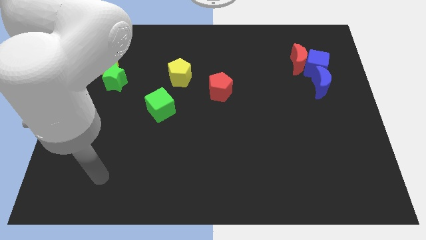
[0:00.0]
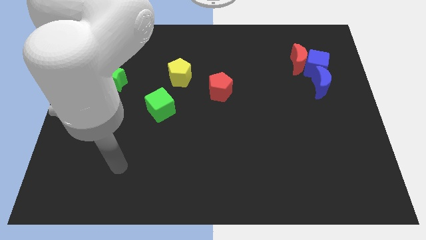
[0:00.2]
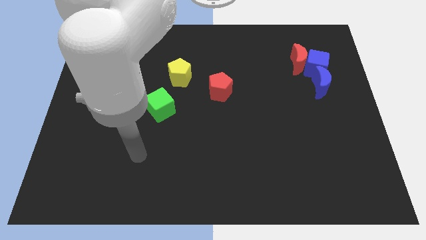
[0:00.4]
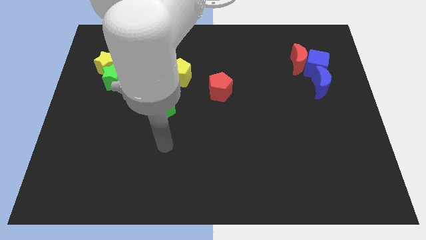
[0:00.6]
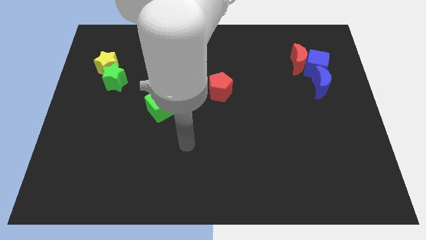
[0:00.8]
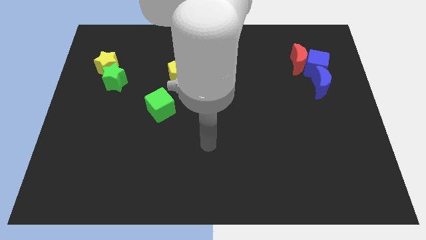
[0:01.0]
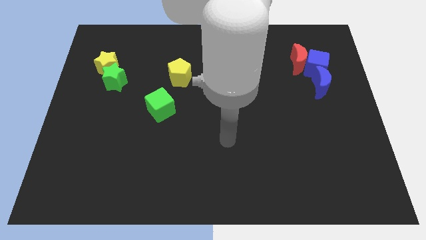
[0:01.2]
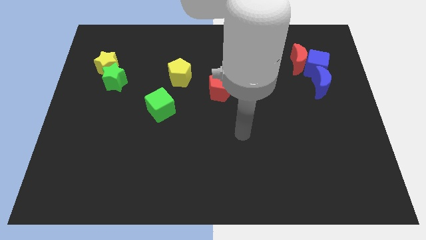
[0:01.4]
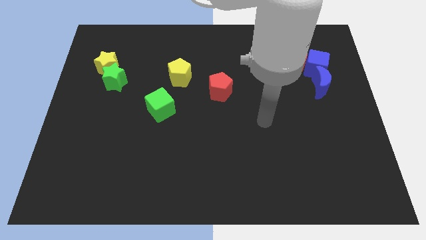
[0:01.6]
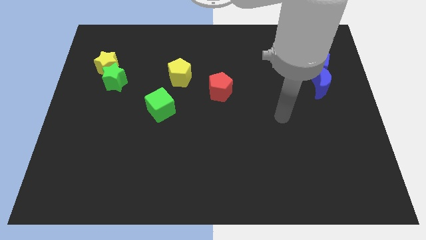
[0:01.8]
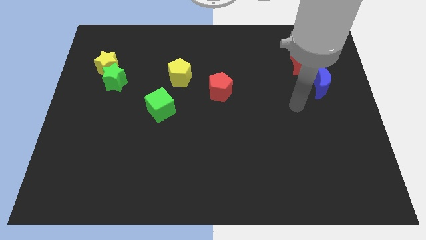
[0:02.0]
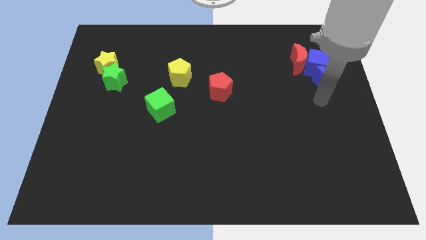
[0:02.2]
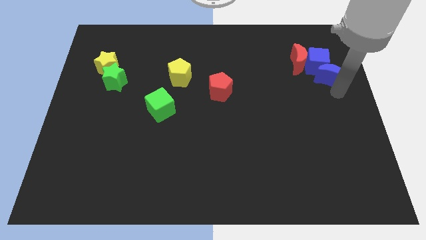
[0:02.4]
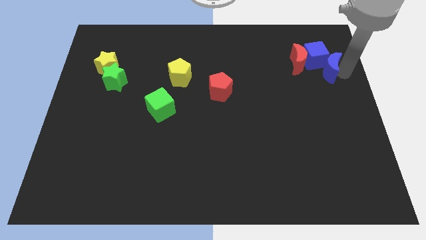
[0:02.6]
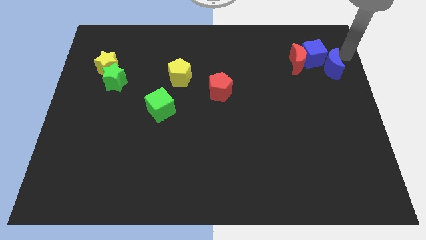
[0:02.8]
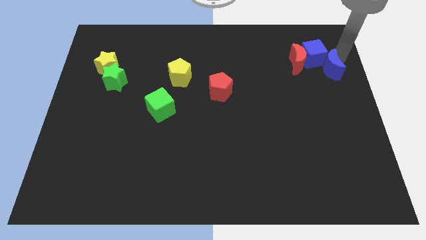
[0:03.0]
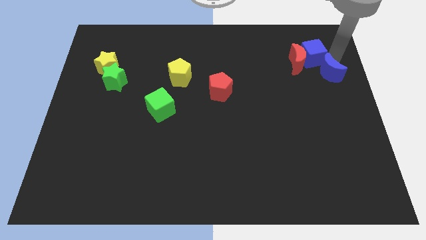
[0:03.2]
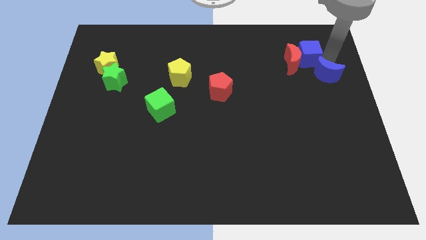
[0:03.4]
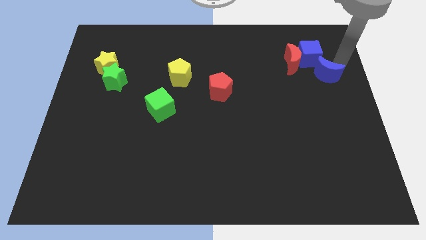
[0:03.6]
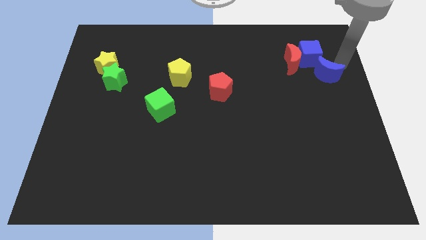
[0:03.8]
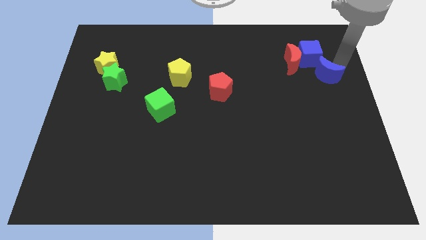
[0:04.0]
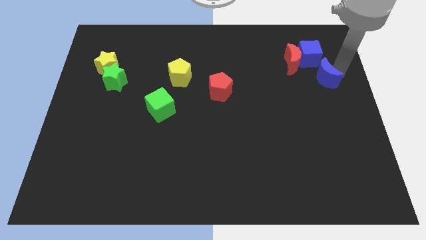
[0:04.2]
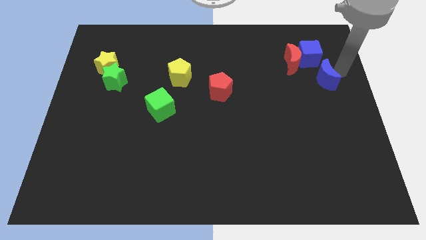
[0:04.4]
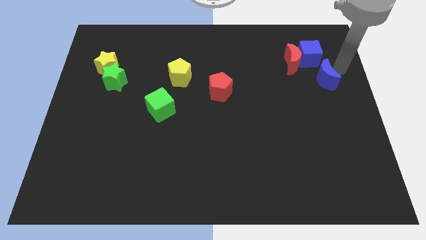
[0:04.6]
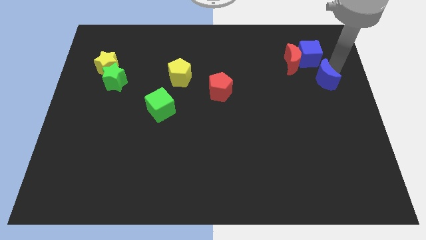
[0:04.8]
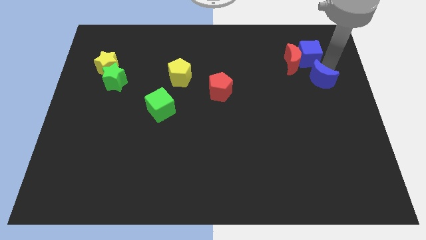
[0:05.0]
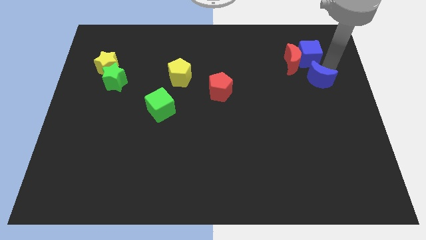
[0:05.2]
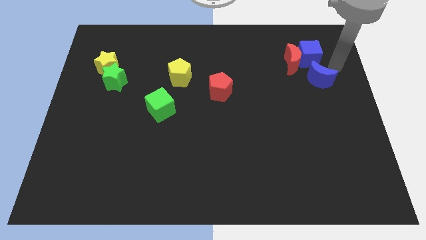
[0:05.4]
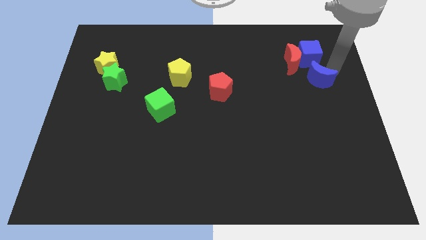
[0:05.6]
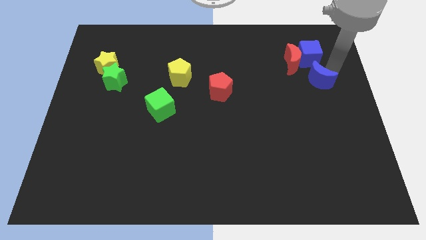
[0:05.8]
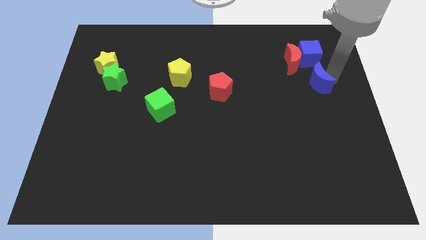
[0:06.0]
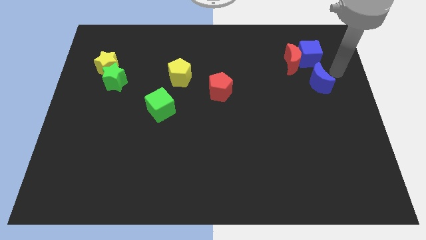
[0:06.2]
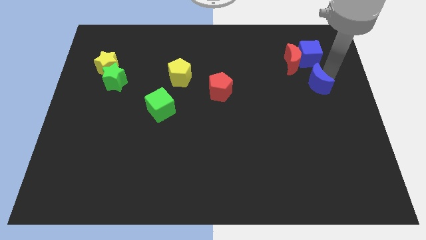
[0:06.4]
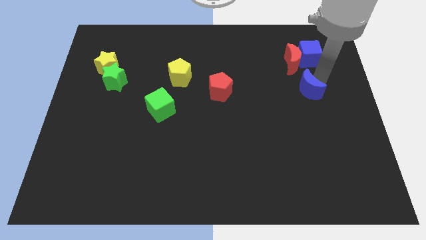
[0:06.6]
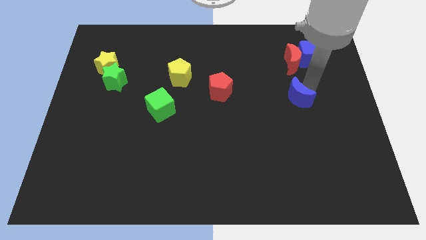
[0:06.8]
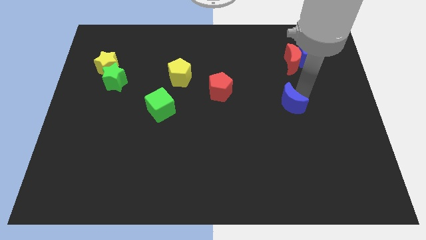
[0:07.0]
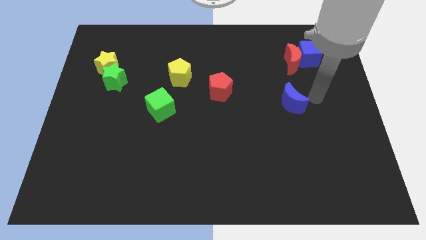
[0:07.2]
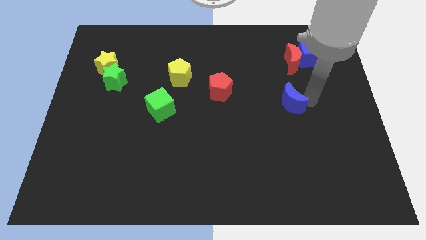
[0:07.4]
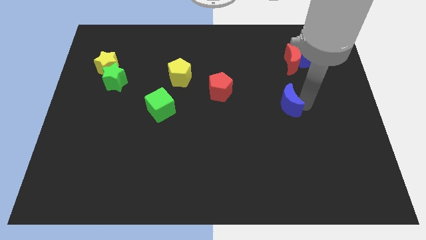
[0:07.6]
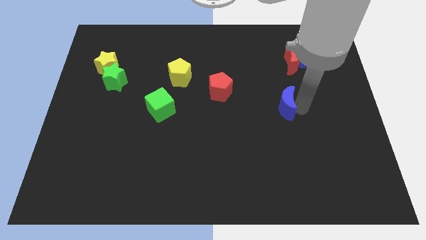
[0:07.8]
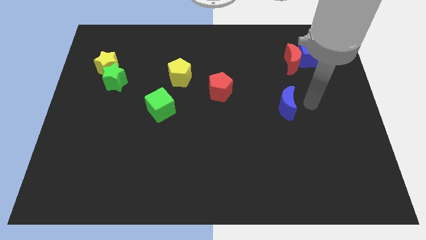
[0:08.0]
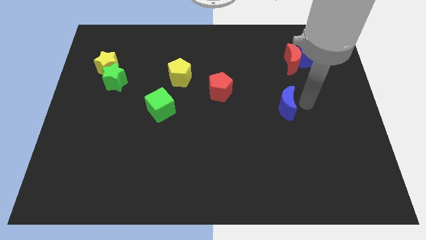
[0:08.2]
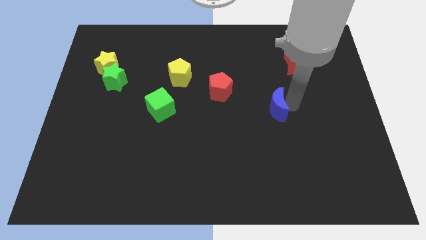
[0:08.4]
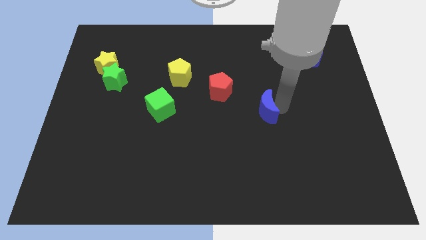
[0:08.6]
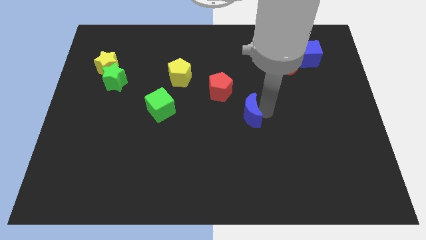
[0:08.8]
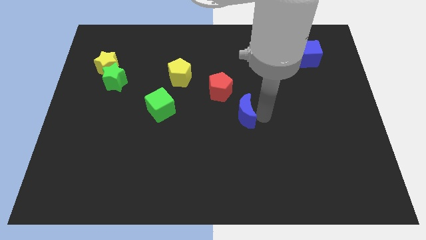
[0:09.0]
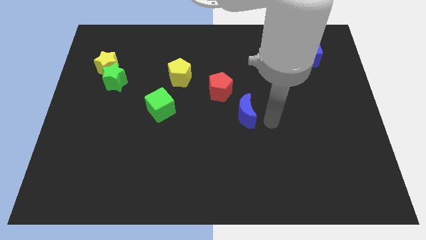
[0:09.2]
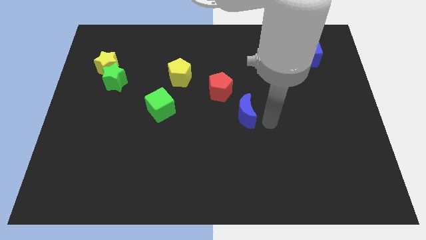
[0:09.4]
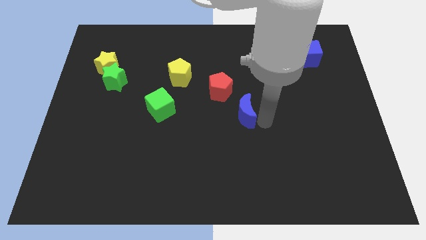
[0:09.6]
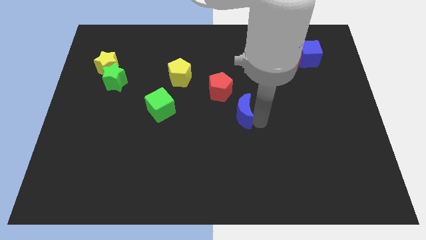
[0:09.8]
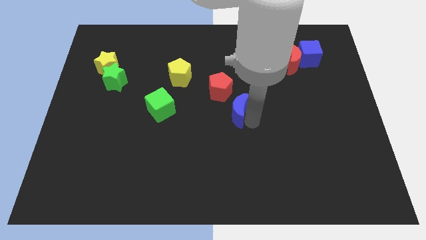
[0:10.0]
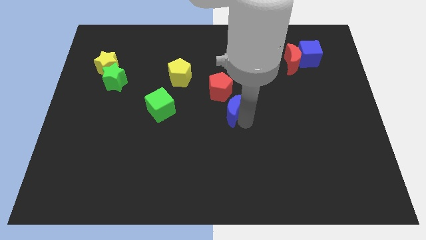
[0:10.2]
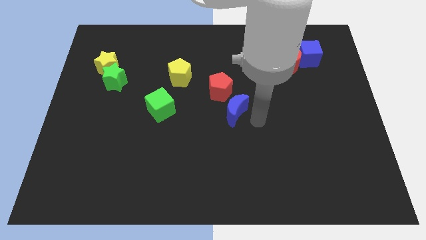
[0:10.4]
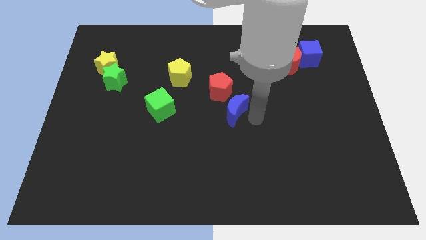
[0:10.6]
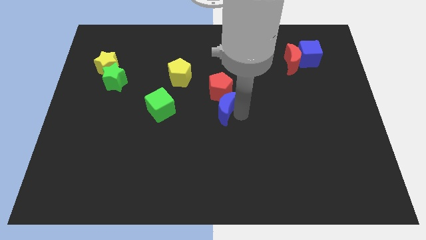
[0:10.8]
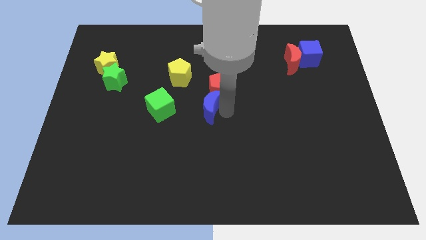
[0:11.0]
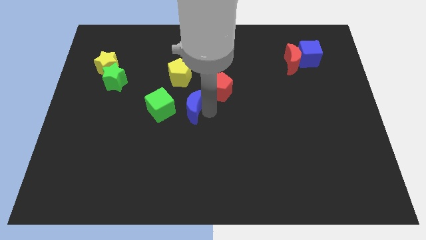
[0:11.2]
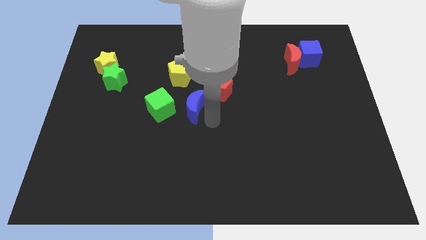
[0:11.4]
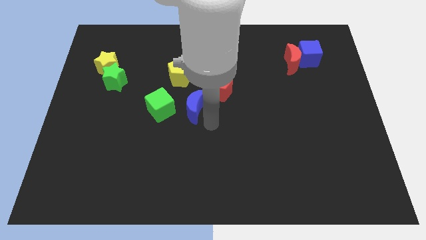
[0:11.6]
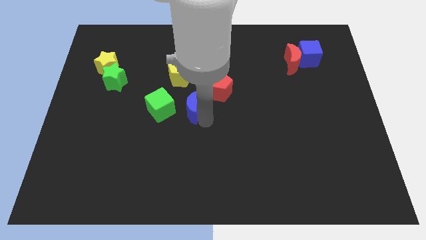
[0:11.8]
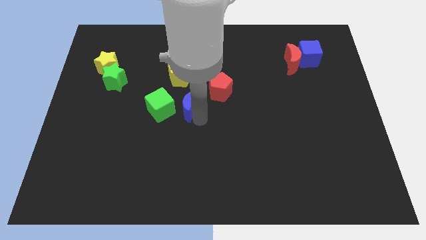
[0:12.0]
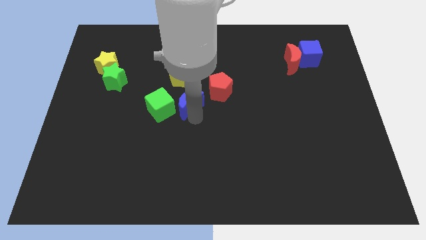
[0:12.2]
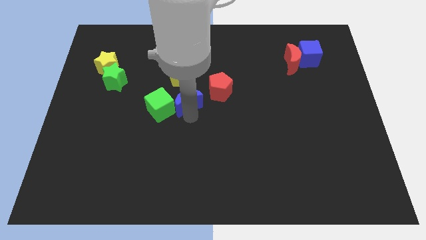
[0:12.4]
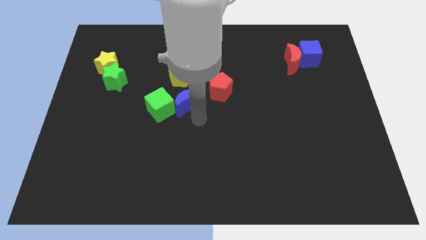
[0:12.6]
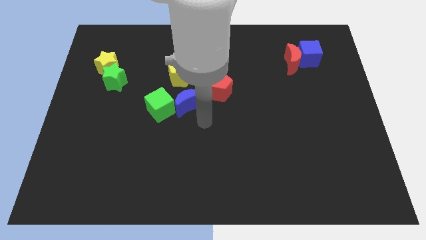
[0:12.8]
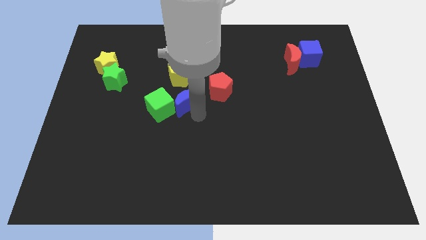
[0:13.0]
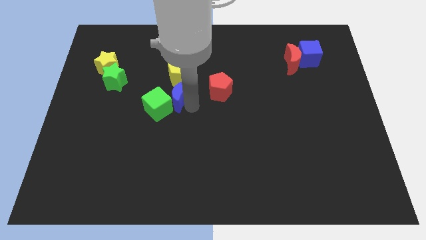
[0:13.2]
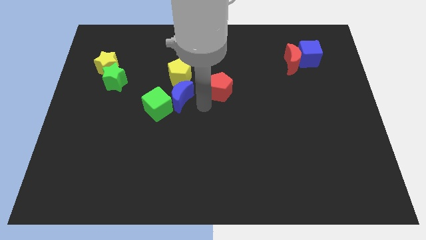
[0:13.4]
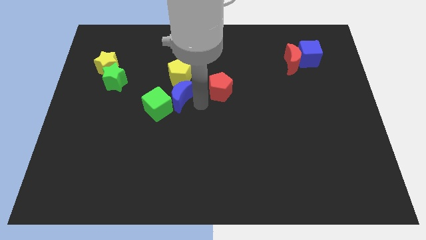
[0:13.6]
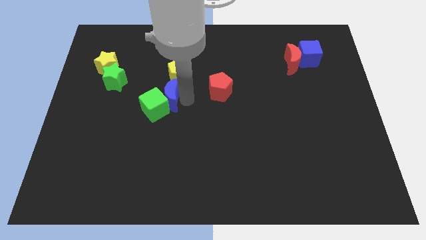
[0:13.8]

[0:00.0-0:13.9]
put the blue moon to the bottom left of the yellow pentagon

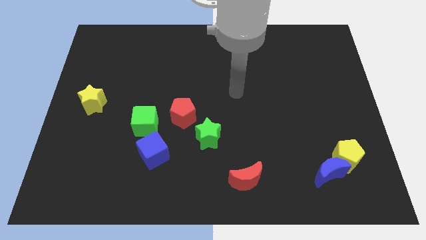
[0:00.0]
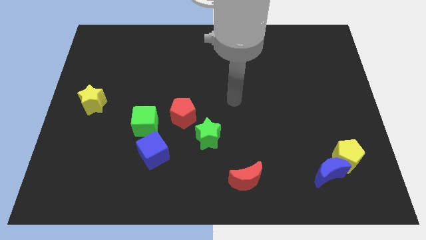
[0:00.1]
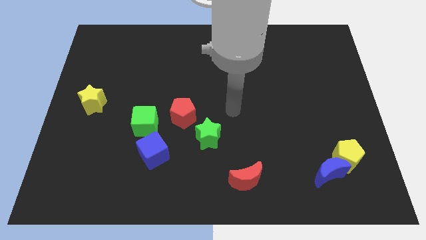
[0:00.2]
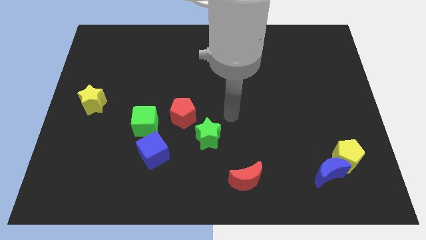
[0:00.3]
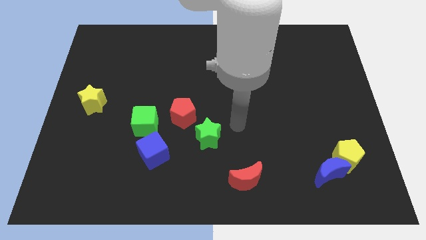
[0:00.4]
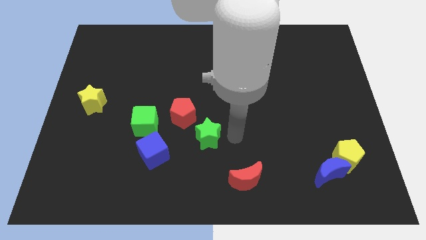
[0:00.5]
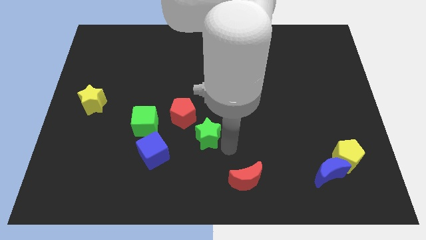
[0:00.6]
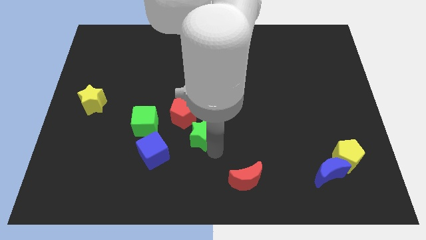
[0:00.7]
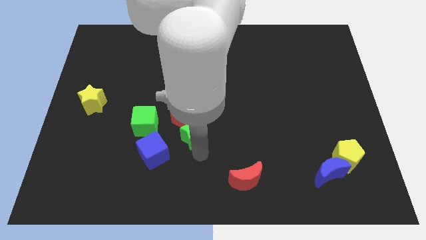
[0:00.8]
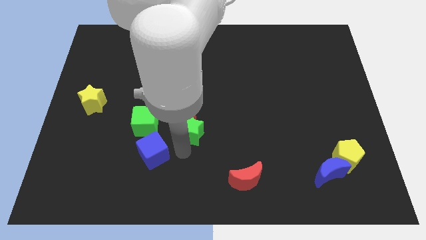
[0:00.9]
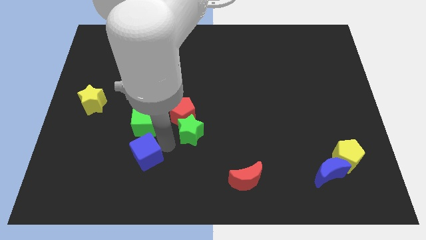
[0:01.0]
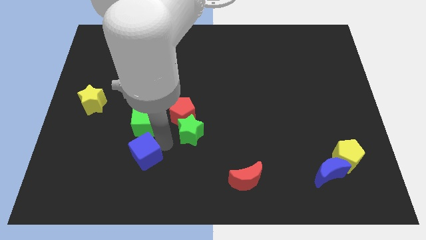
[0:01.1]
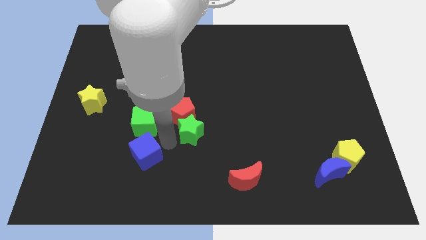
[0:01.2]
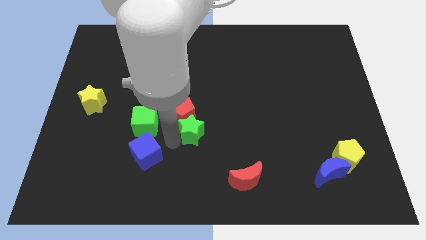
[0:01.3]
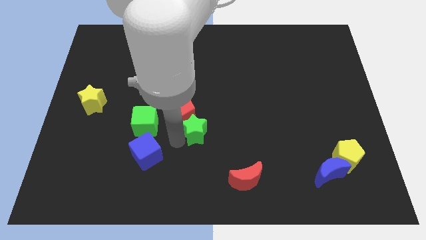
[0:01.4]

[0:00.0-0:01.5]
slide the green star right of the red pentagon
